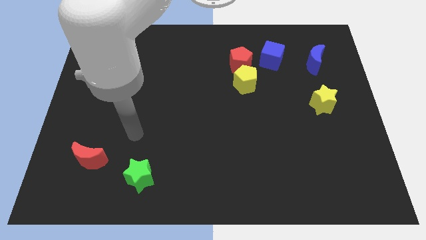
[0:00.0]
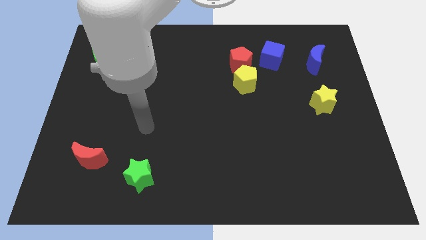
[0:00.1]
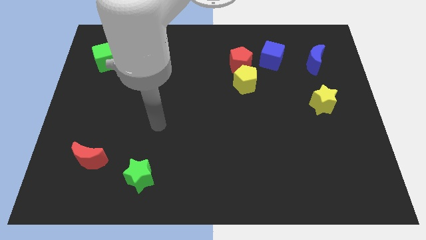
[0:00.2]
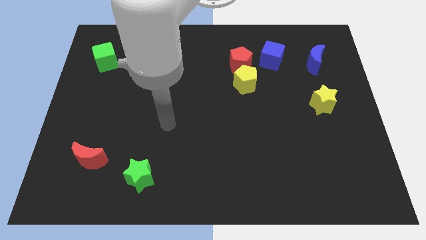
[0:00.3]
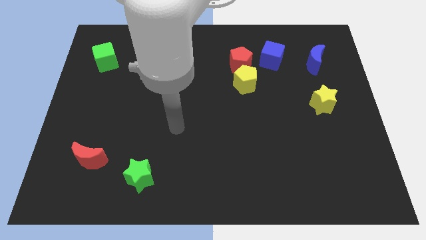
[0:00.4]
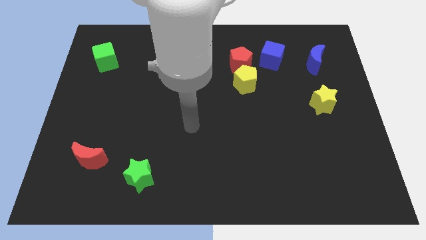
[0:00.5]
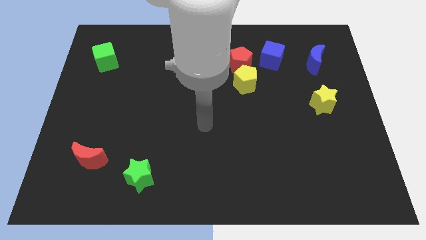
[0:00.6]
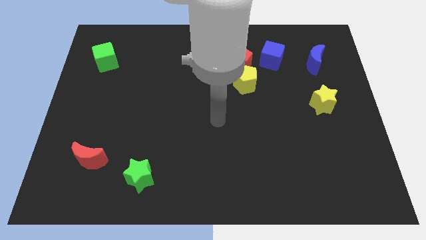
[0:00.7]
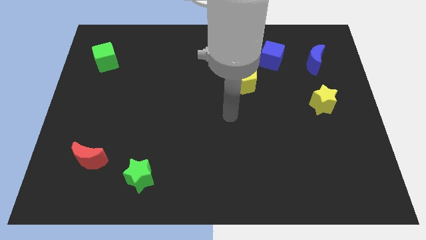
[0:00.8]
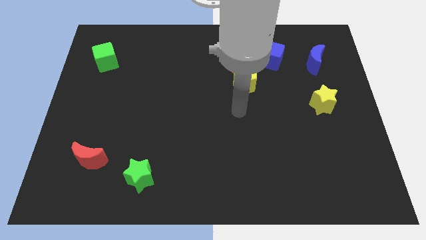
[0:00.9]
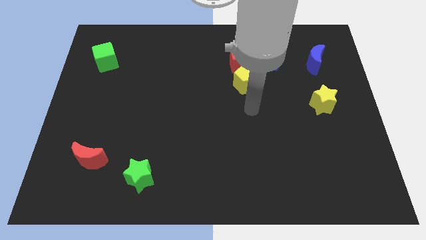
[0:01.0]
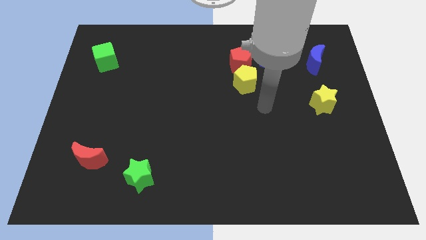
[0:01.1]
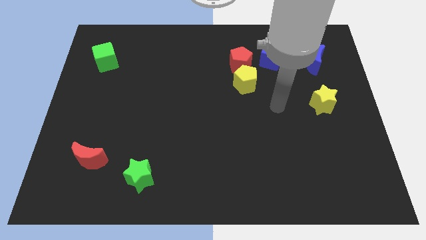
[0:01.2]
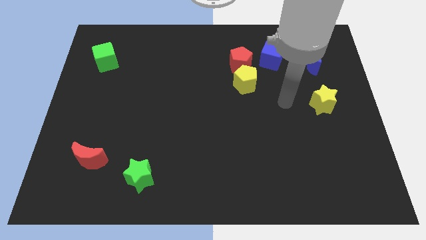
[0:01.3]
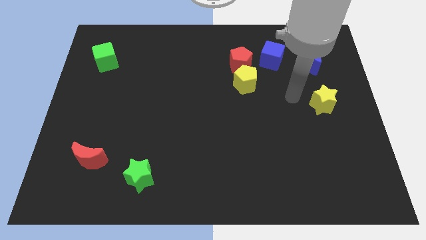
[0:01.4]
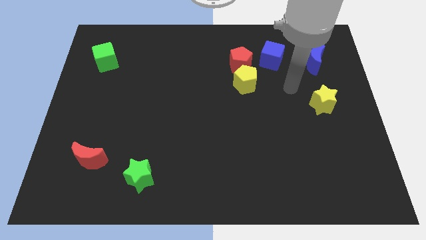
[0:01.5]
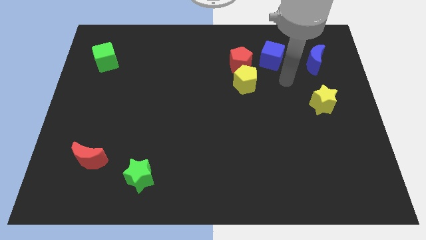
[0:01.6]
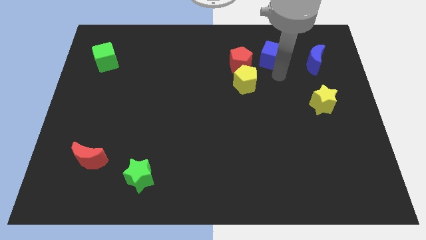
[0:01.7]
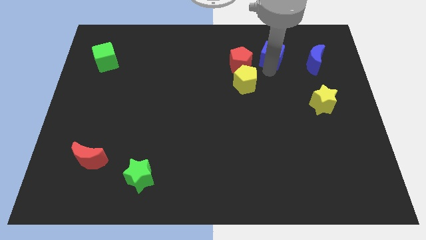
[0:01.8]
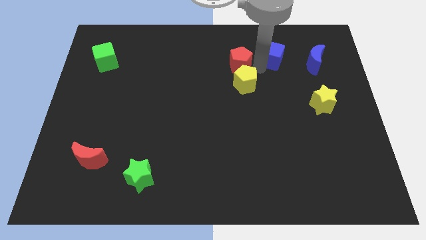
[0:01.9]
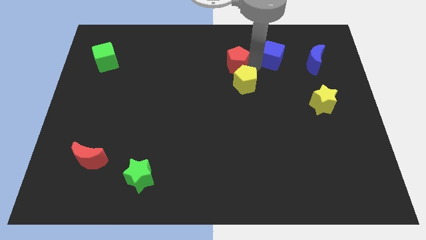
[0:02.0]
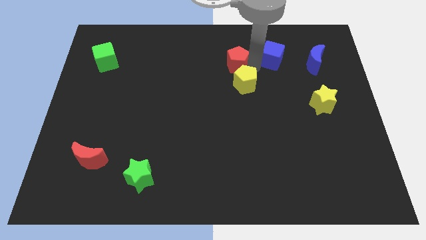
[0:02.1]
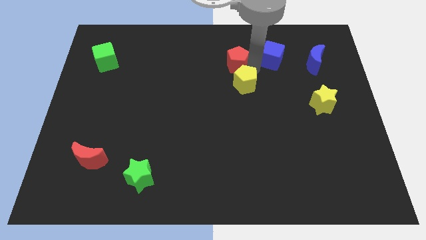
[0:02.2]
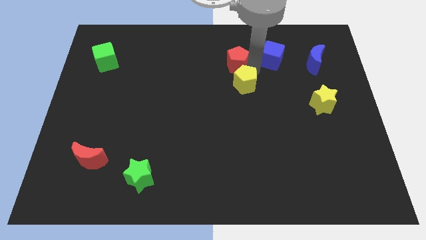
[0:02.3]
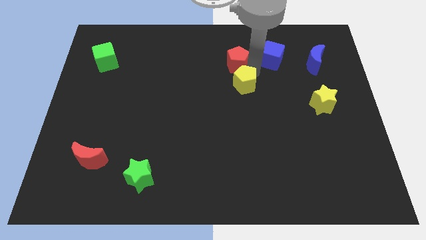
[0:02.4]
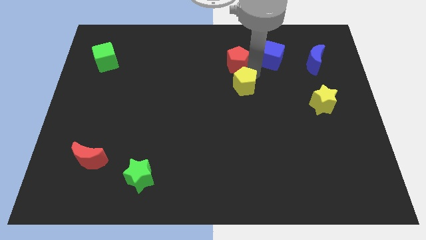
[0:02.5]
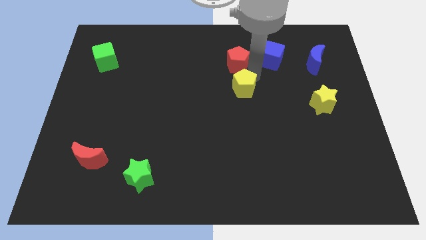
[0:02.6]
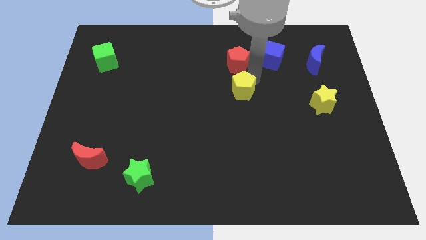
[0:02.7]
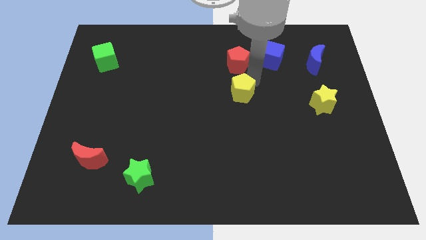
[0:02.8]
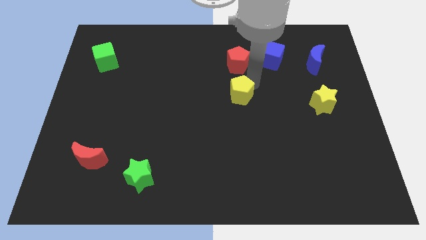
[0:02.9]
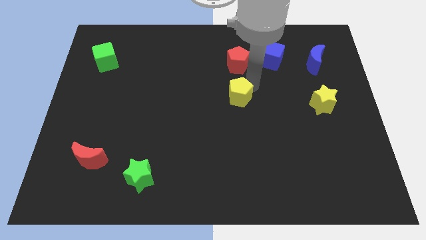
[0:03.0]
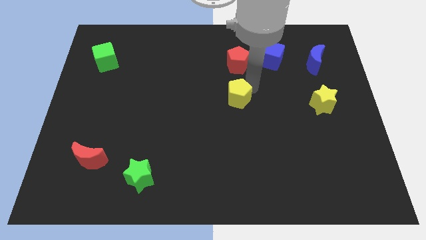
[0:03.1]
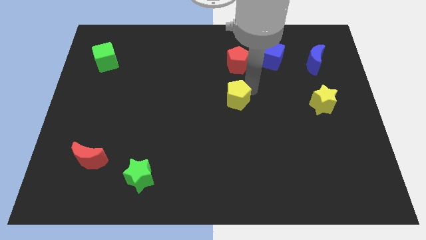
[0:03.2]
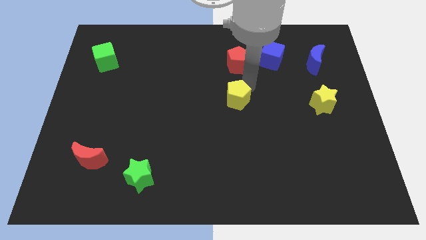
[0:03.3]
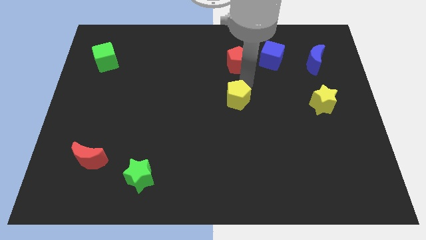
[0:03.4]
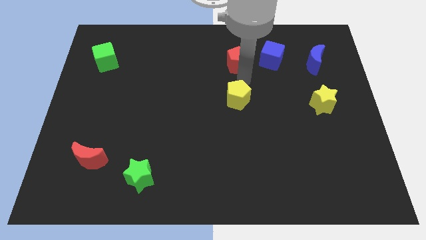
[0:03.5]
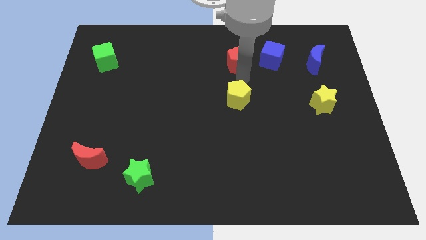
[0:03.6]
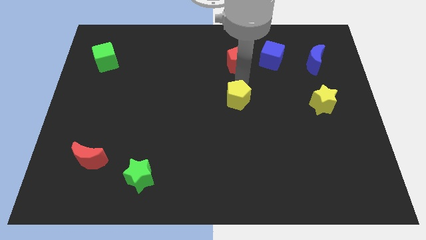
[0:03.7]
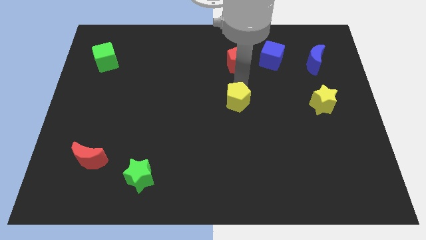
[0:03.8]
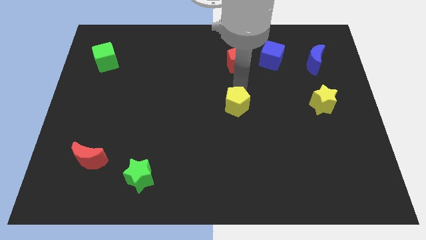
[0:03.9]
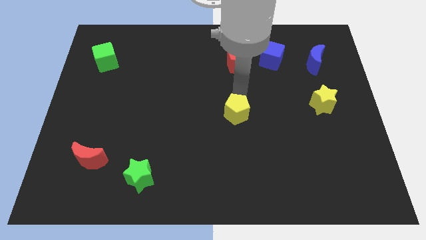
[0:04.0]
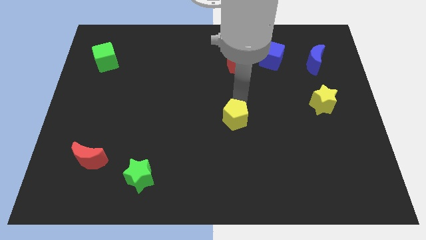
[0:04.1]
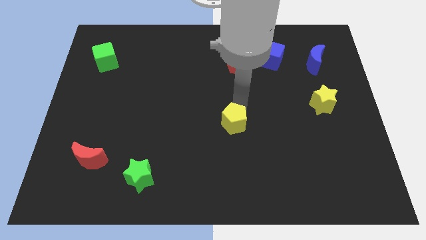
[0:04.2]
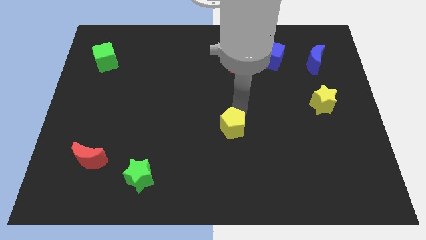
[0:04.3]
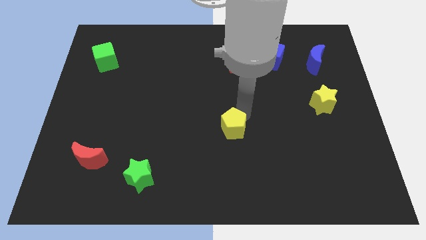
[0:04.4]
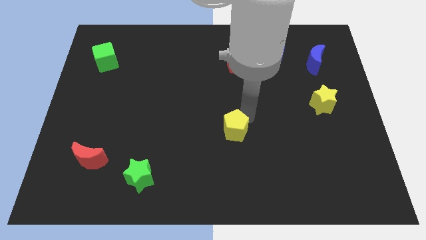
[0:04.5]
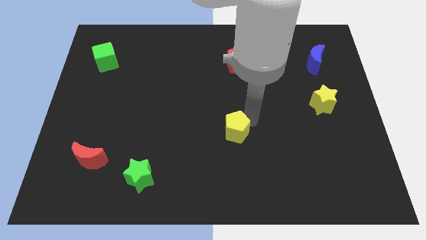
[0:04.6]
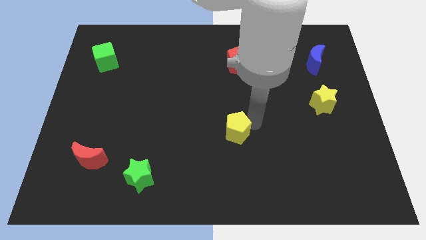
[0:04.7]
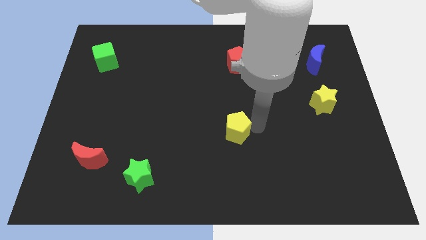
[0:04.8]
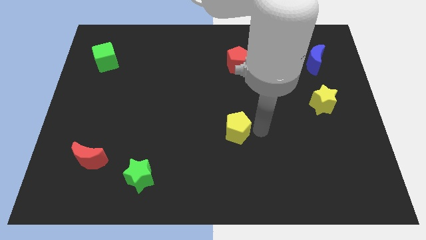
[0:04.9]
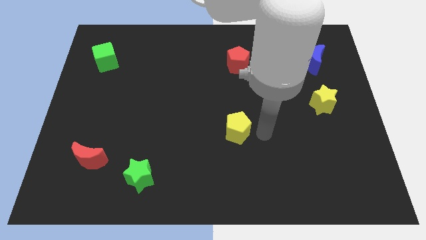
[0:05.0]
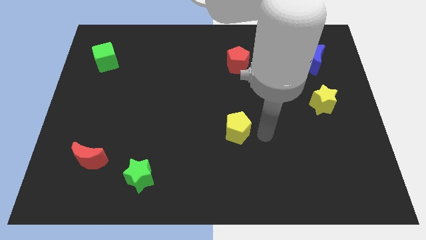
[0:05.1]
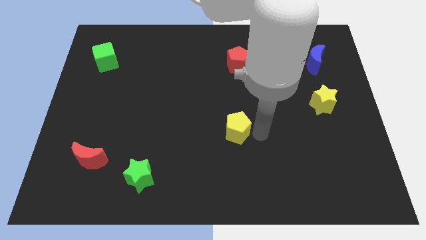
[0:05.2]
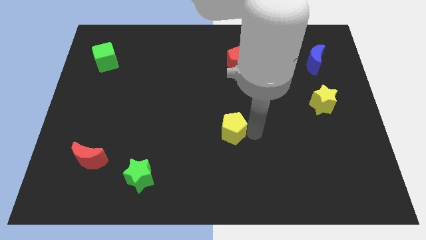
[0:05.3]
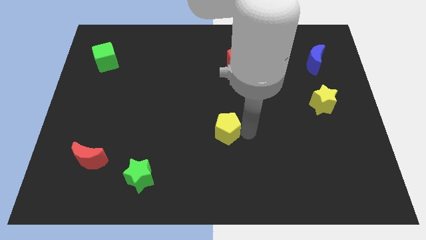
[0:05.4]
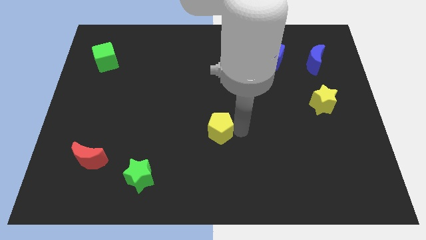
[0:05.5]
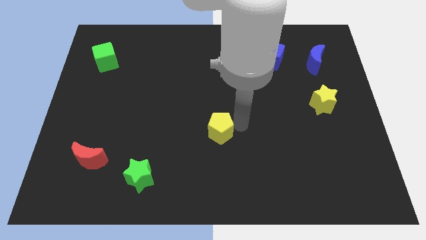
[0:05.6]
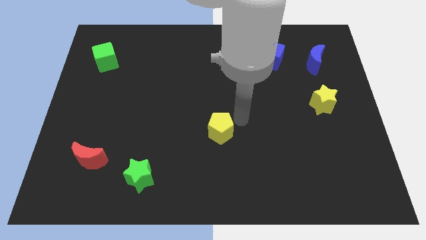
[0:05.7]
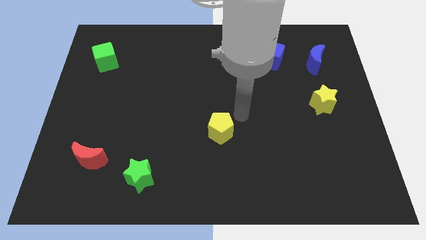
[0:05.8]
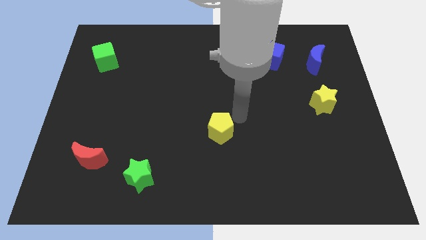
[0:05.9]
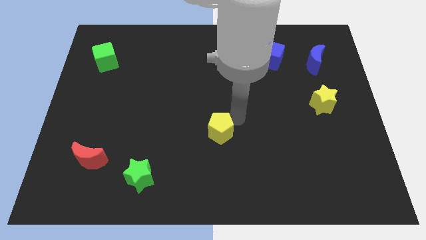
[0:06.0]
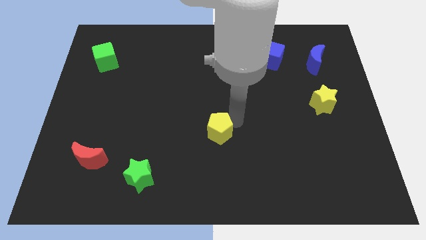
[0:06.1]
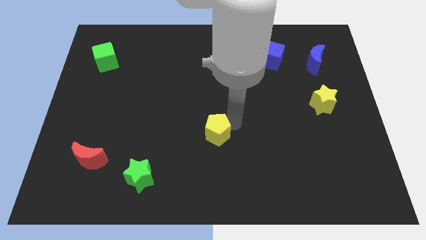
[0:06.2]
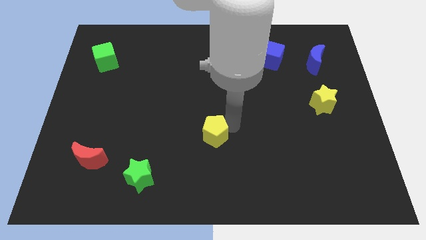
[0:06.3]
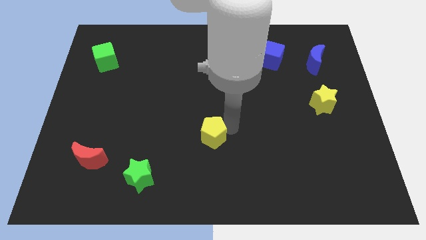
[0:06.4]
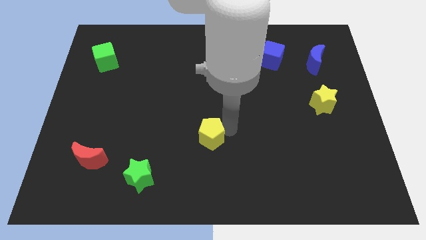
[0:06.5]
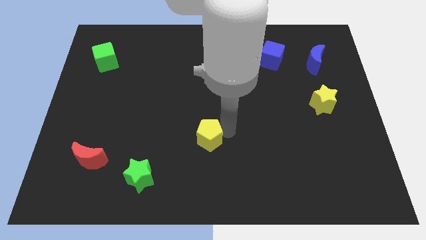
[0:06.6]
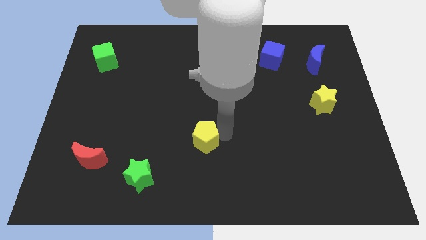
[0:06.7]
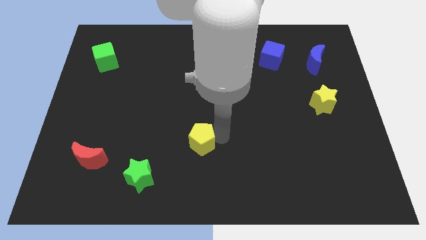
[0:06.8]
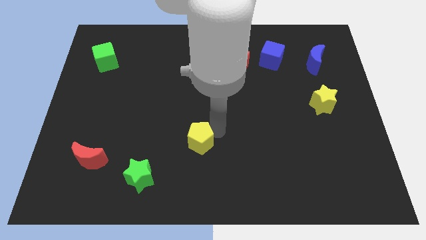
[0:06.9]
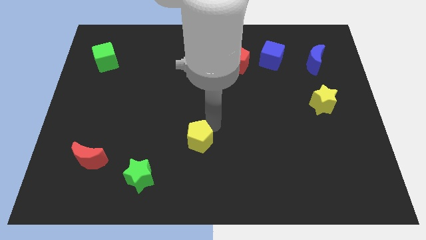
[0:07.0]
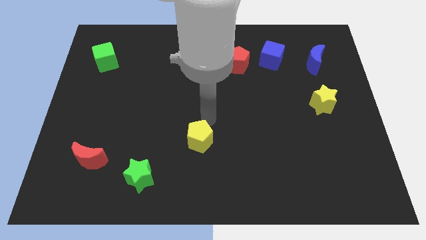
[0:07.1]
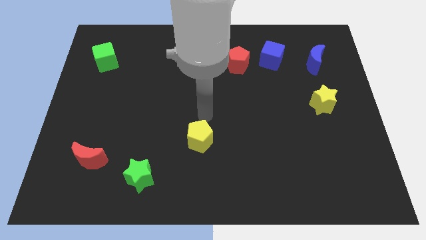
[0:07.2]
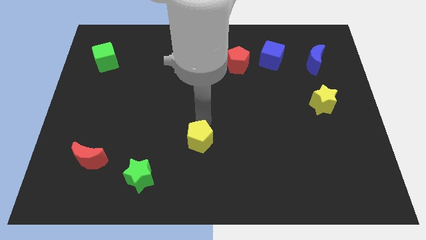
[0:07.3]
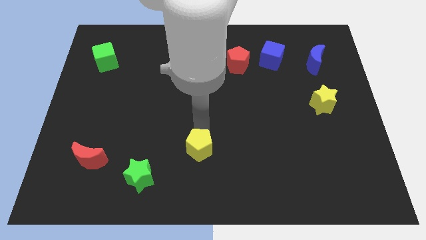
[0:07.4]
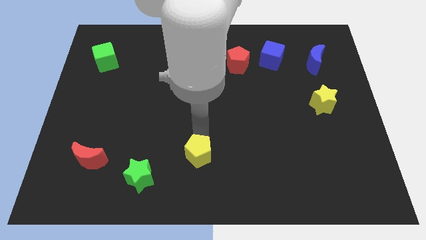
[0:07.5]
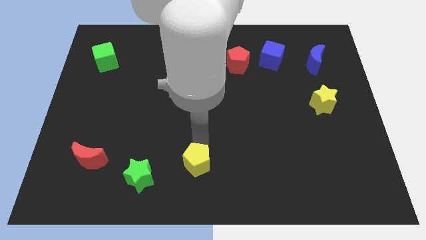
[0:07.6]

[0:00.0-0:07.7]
push the yellow pentagon to the right side of the green star
